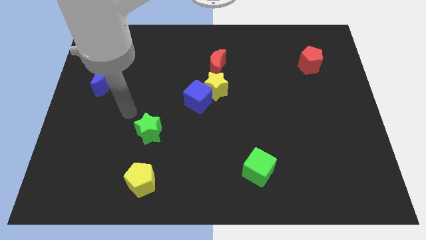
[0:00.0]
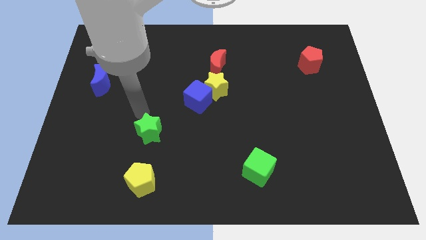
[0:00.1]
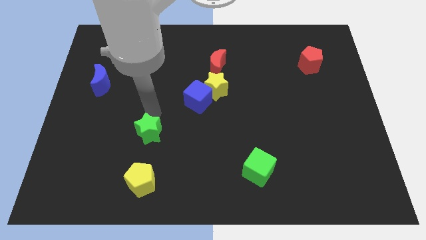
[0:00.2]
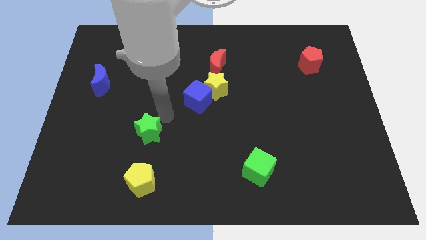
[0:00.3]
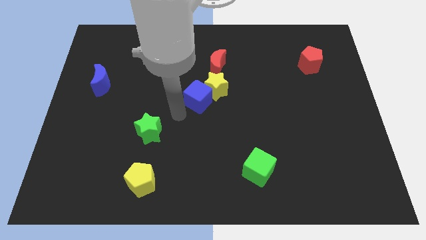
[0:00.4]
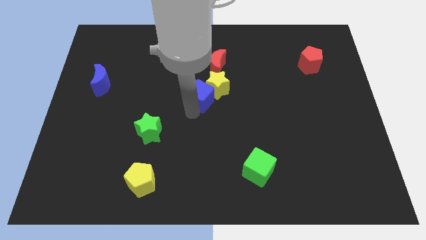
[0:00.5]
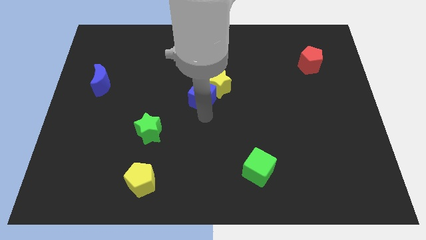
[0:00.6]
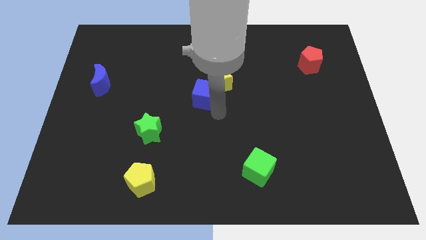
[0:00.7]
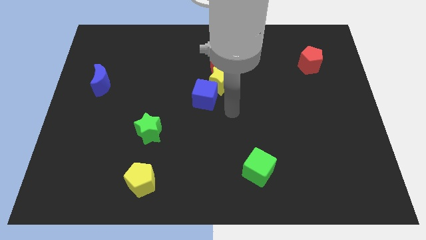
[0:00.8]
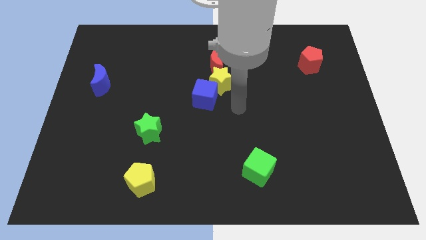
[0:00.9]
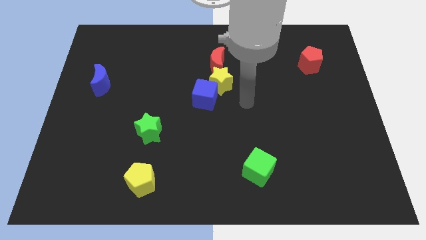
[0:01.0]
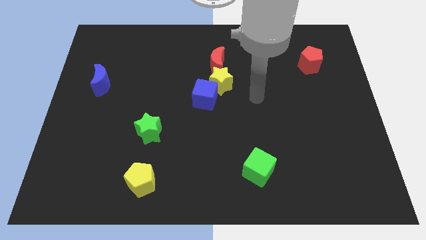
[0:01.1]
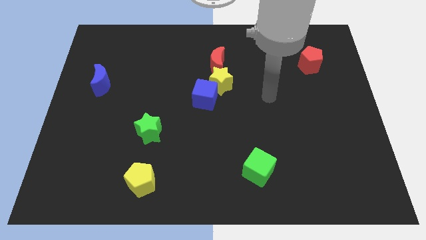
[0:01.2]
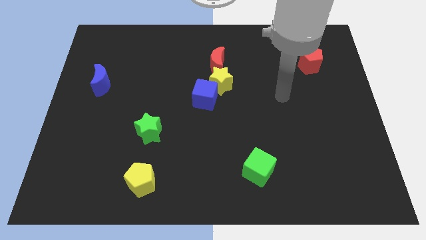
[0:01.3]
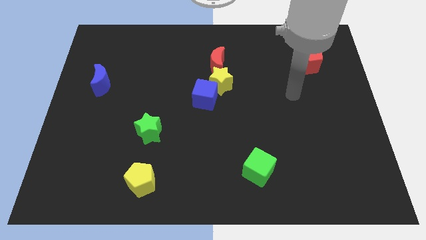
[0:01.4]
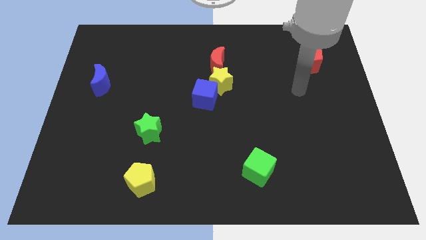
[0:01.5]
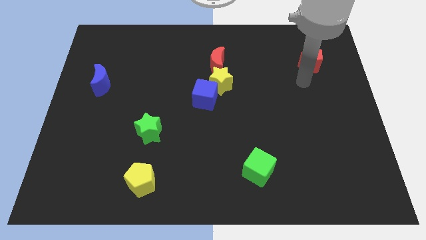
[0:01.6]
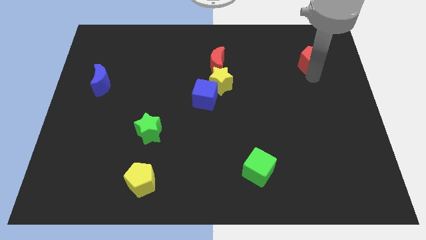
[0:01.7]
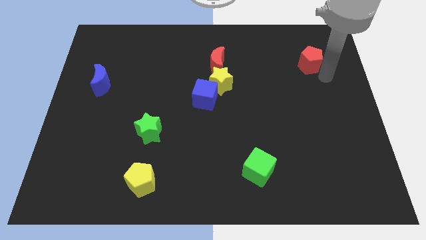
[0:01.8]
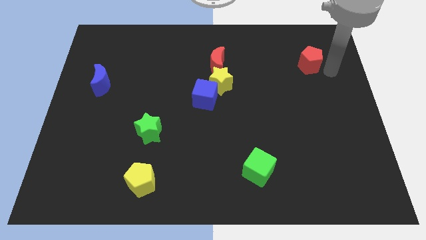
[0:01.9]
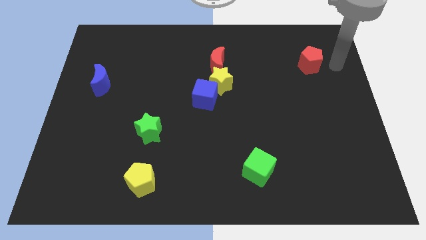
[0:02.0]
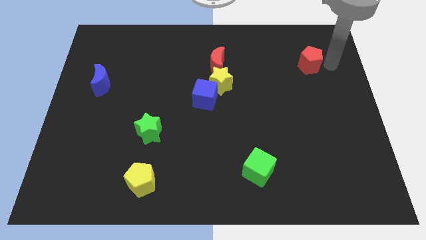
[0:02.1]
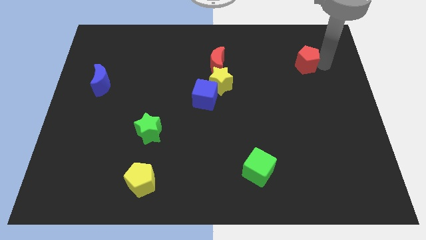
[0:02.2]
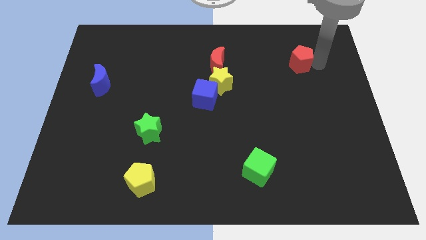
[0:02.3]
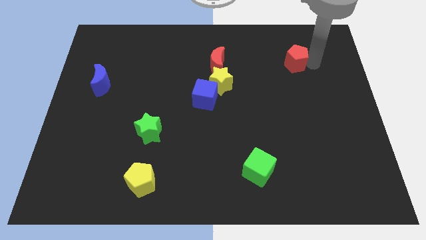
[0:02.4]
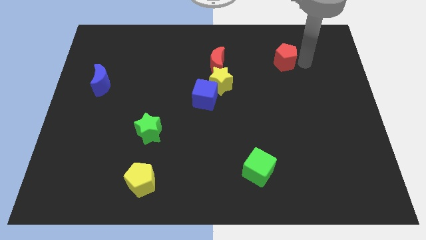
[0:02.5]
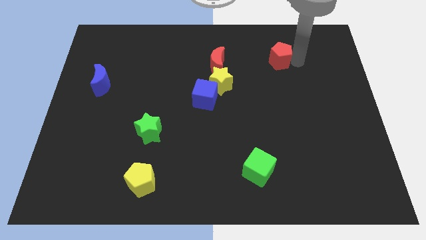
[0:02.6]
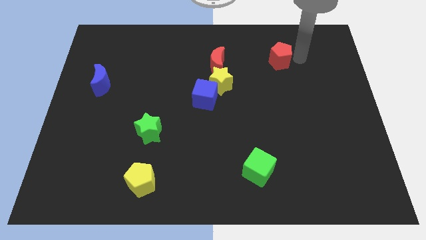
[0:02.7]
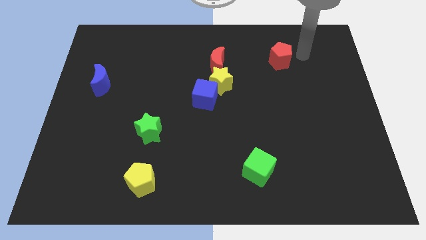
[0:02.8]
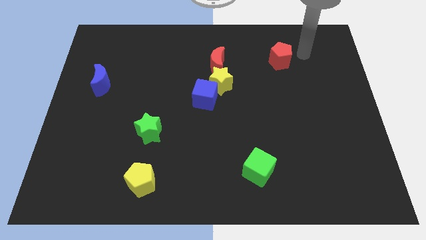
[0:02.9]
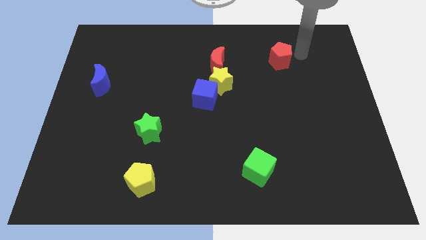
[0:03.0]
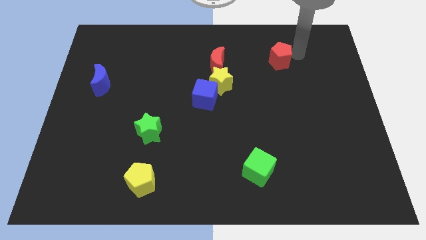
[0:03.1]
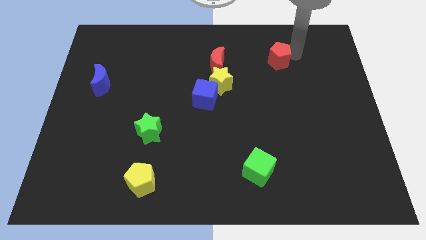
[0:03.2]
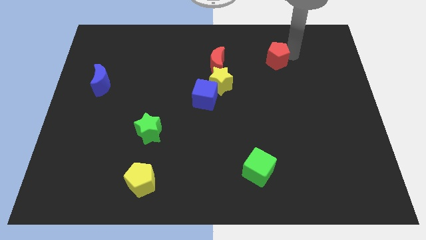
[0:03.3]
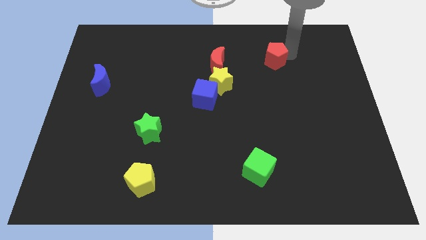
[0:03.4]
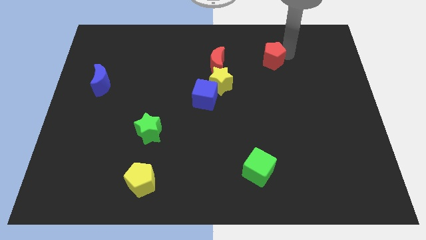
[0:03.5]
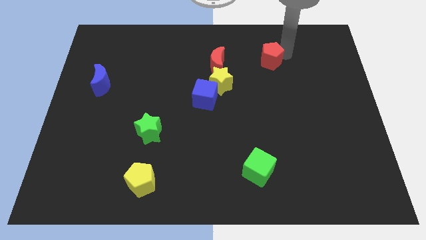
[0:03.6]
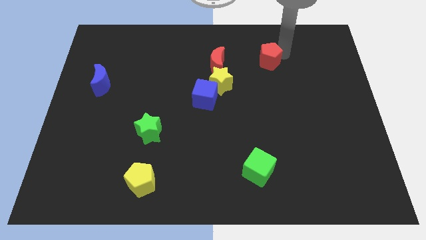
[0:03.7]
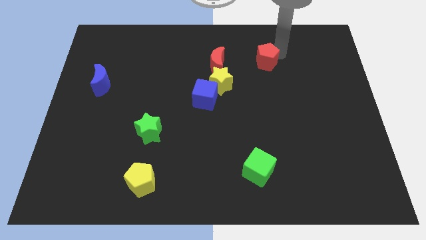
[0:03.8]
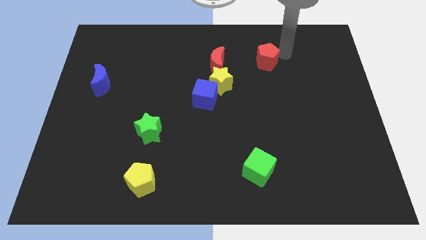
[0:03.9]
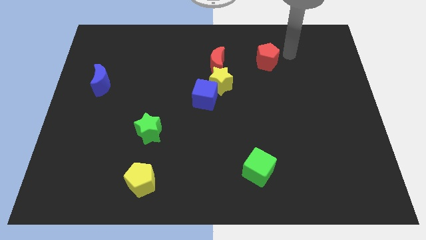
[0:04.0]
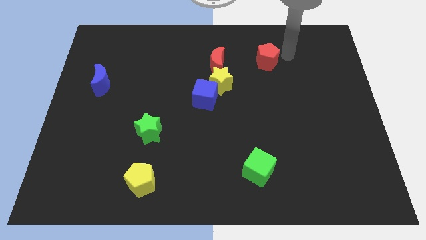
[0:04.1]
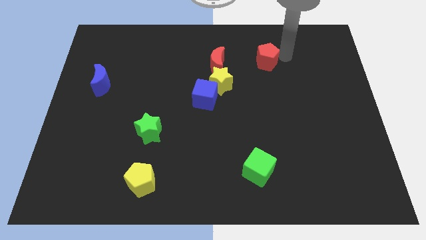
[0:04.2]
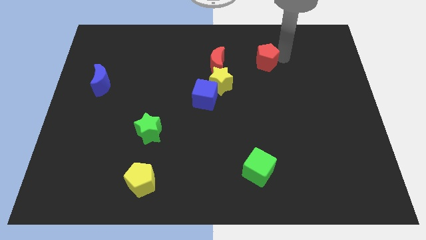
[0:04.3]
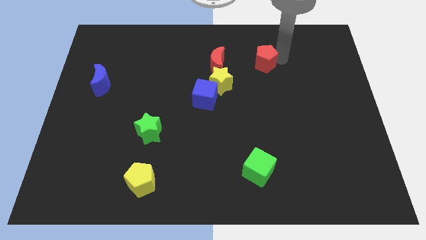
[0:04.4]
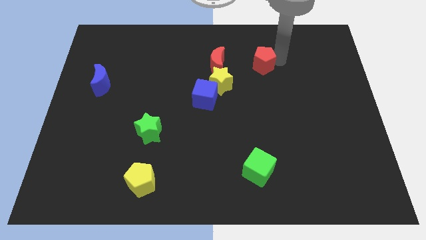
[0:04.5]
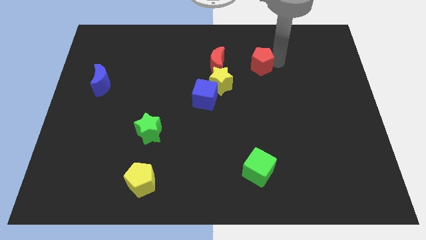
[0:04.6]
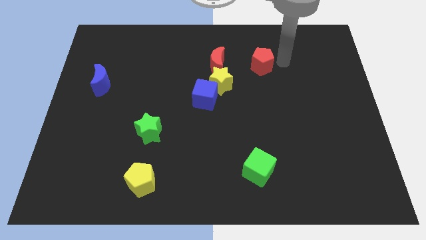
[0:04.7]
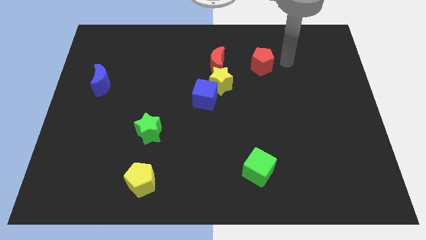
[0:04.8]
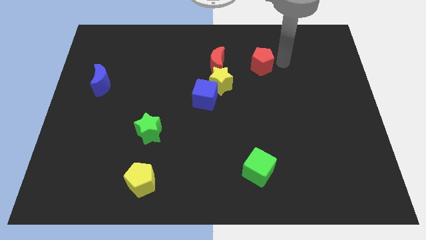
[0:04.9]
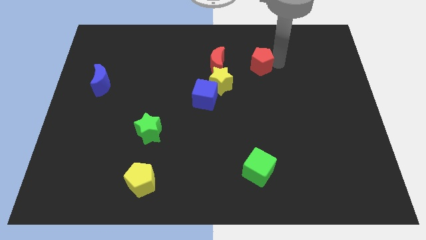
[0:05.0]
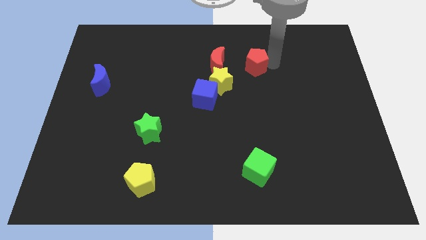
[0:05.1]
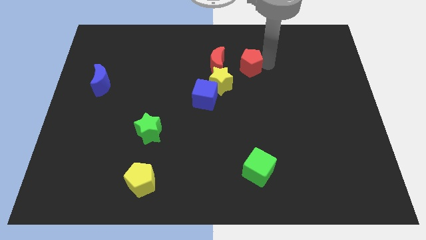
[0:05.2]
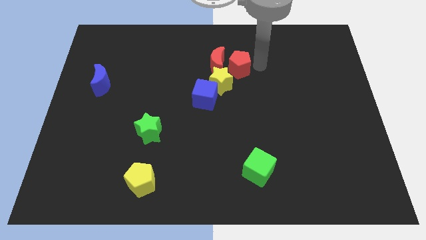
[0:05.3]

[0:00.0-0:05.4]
slide the red pentagon close to the red moon

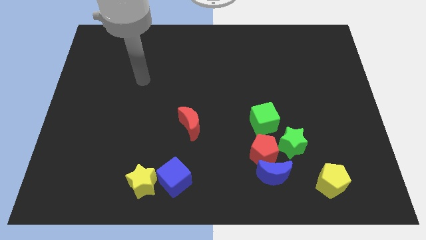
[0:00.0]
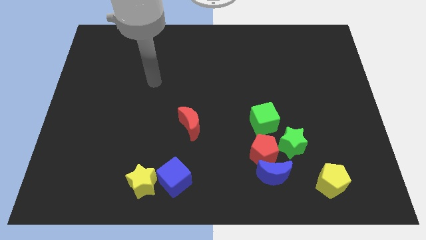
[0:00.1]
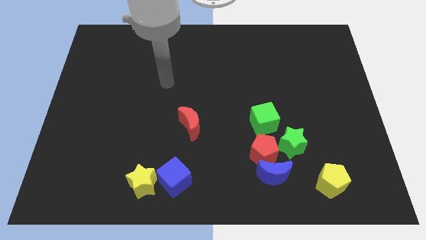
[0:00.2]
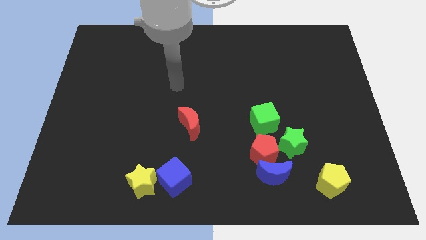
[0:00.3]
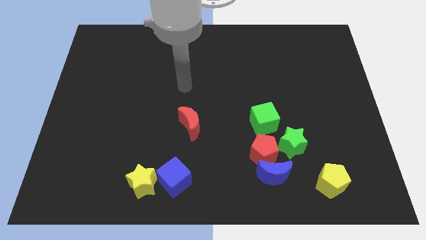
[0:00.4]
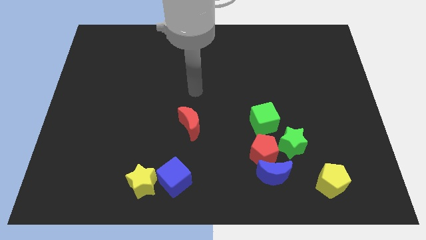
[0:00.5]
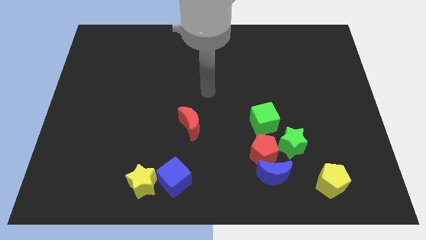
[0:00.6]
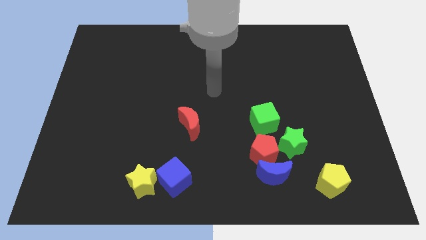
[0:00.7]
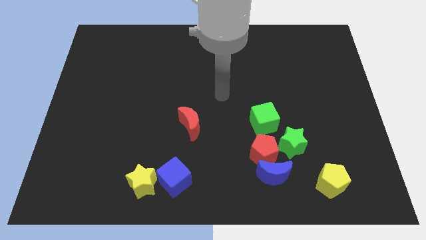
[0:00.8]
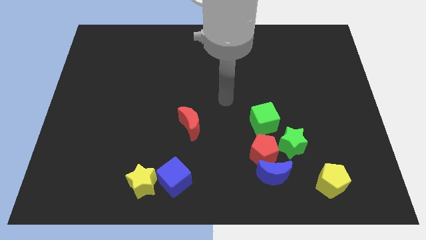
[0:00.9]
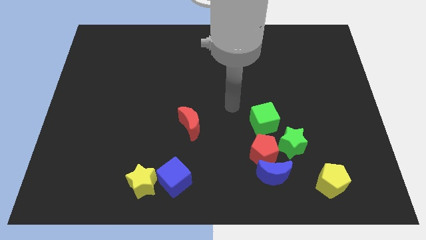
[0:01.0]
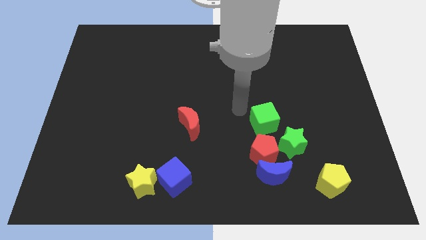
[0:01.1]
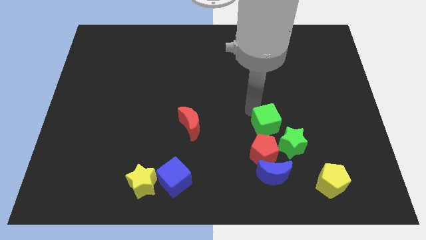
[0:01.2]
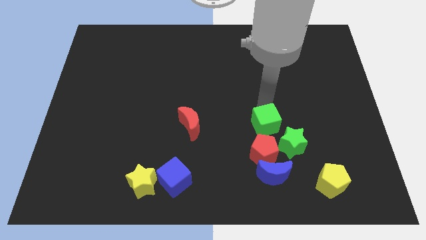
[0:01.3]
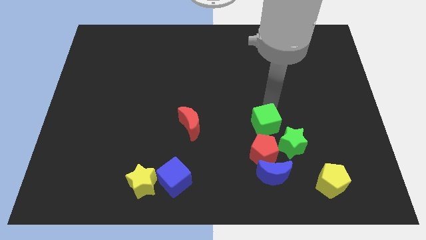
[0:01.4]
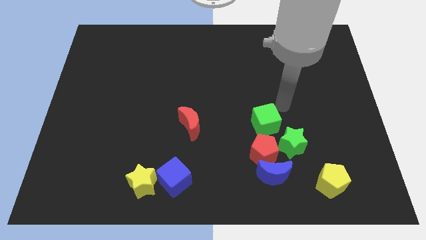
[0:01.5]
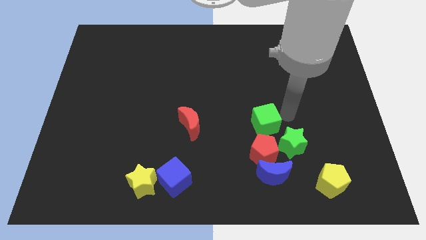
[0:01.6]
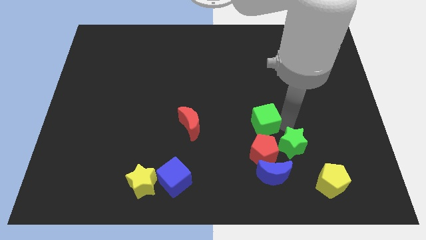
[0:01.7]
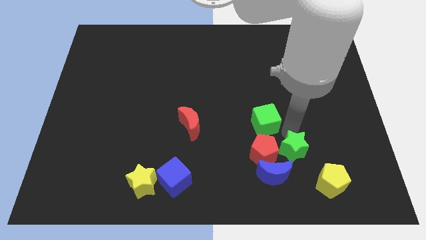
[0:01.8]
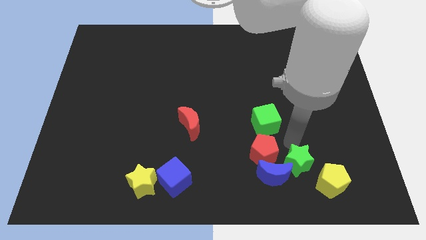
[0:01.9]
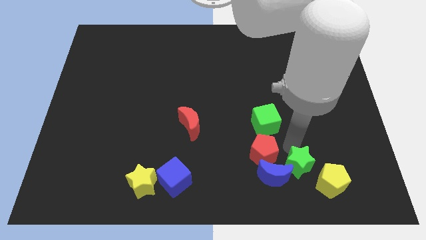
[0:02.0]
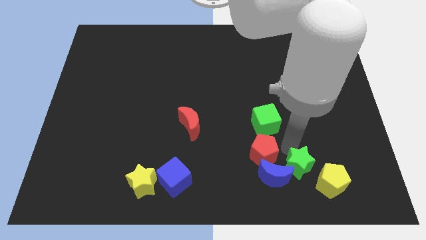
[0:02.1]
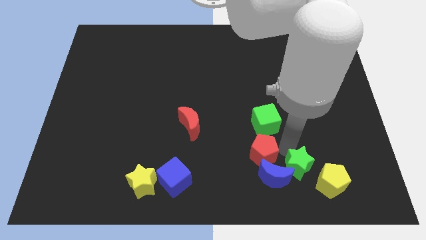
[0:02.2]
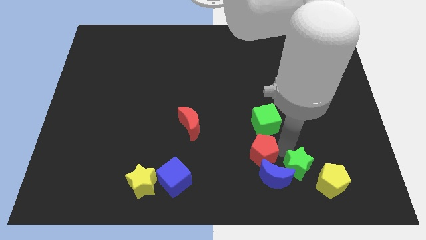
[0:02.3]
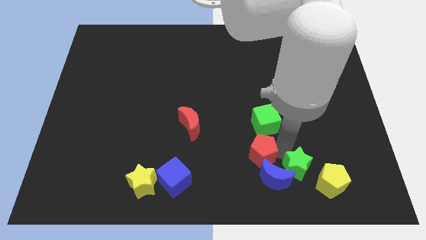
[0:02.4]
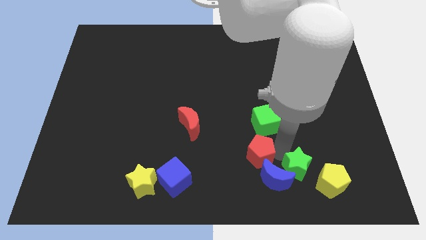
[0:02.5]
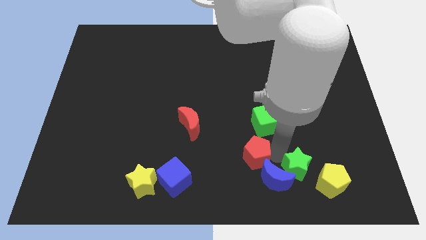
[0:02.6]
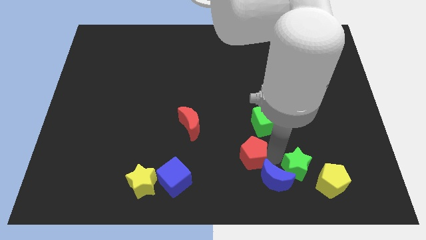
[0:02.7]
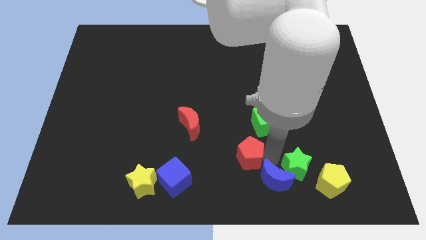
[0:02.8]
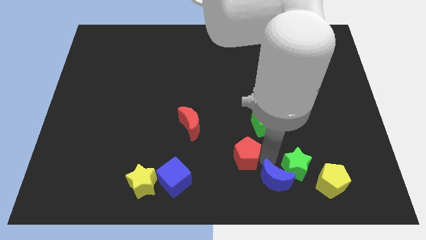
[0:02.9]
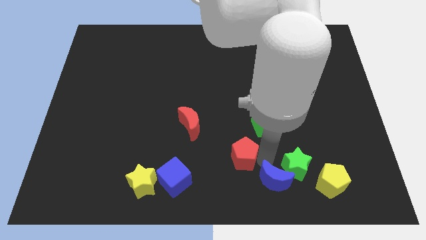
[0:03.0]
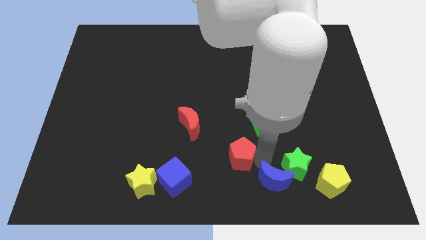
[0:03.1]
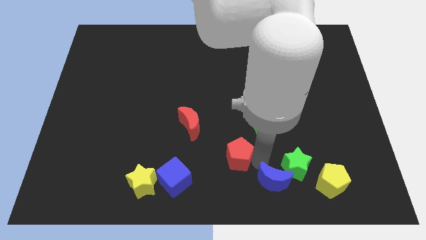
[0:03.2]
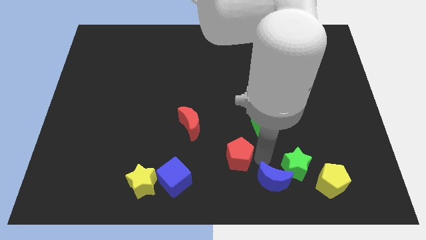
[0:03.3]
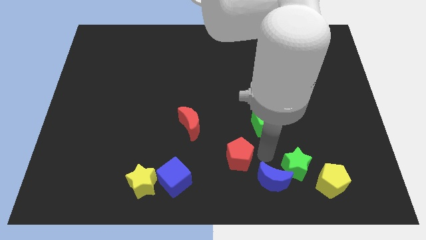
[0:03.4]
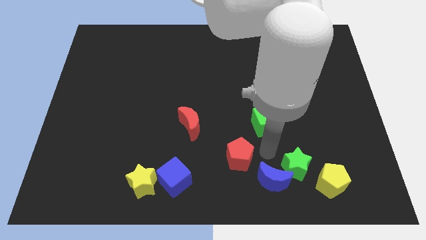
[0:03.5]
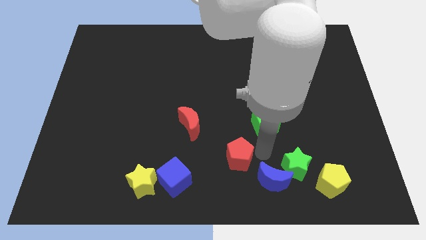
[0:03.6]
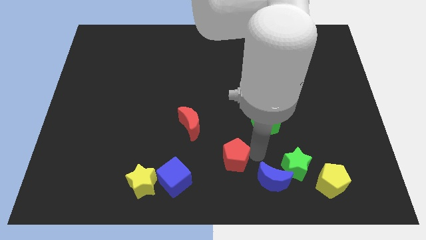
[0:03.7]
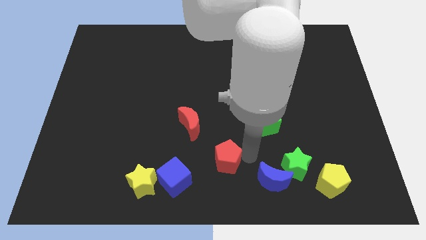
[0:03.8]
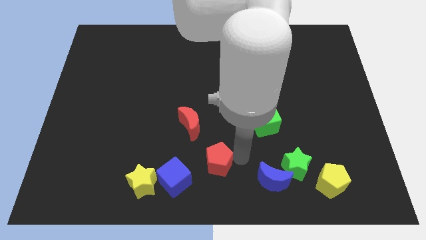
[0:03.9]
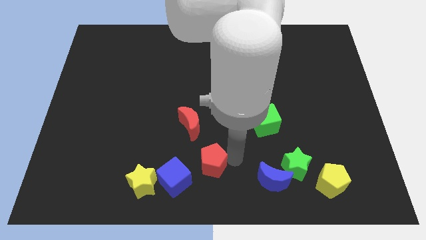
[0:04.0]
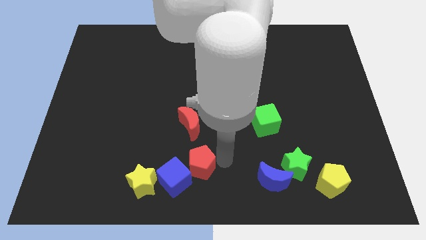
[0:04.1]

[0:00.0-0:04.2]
move the red pentagon close to the blue cube
